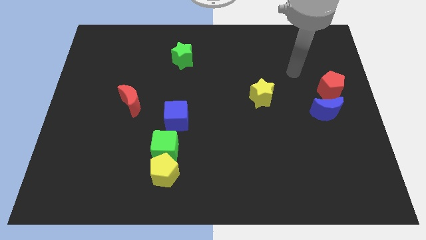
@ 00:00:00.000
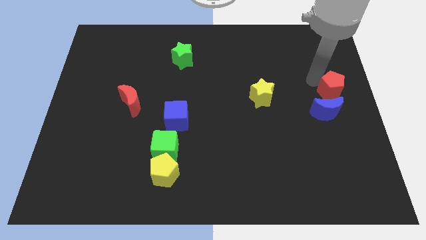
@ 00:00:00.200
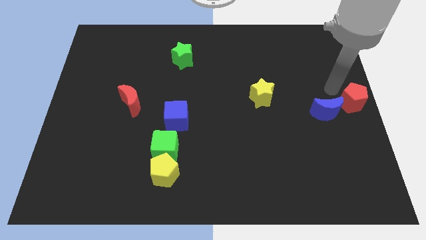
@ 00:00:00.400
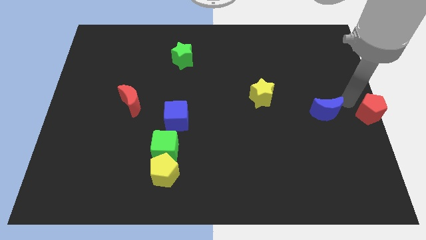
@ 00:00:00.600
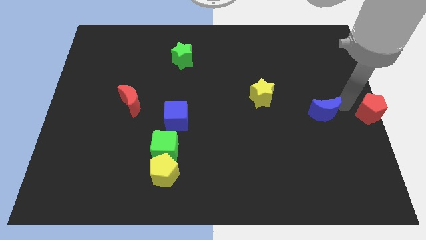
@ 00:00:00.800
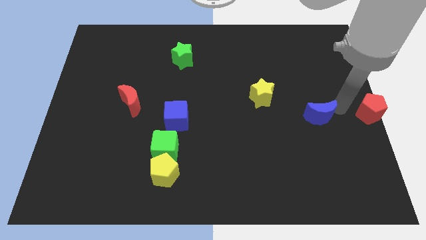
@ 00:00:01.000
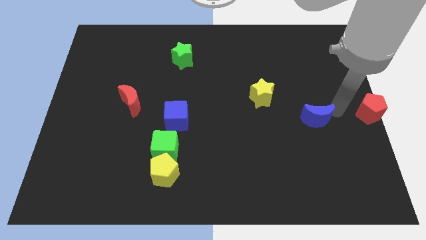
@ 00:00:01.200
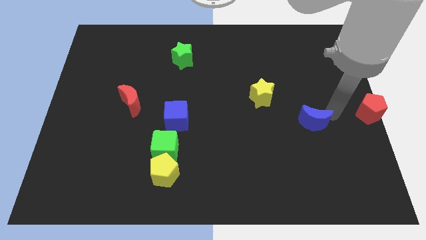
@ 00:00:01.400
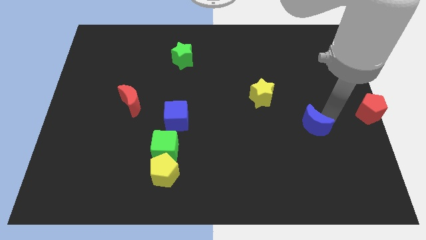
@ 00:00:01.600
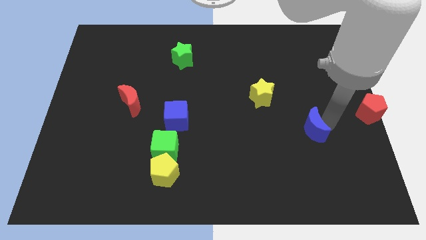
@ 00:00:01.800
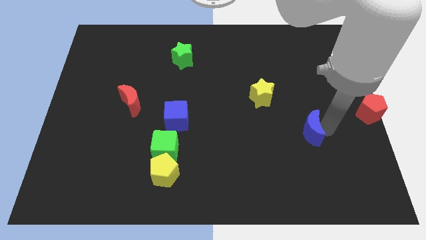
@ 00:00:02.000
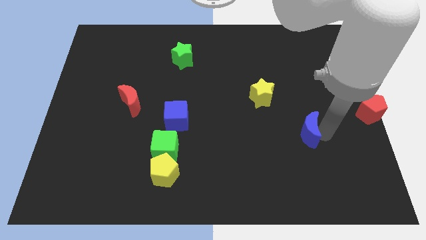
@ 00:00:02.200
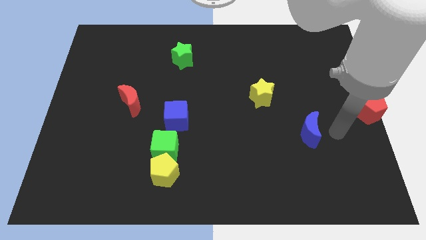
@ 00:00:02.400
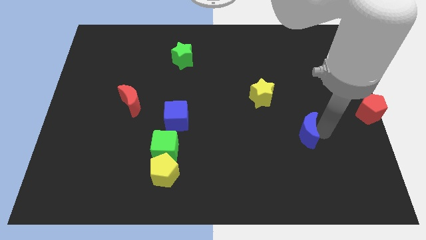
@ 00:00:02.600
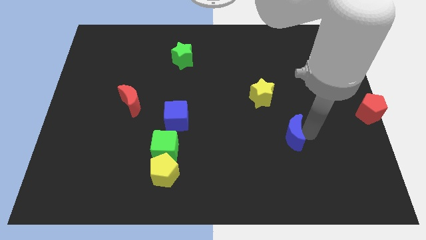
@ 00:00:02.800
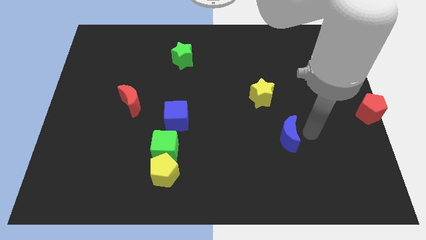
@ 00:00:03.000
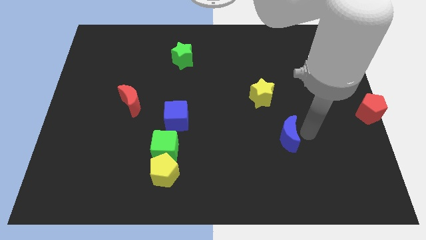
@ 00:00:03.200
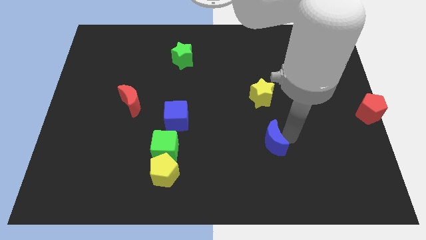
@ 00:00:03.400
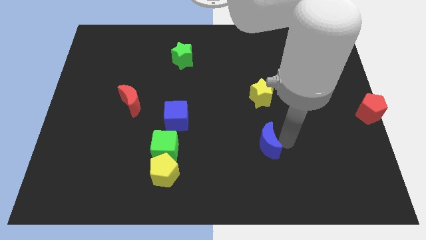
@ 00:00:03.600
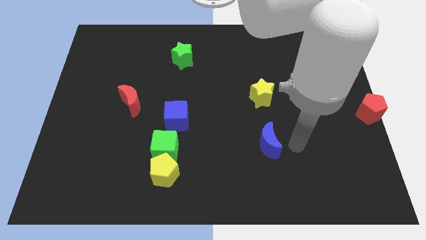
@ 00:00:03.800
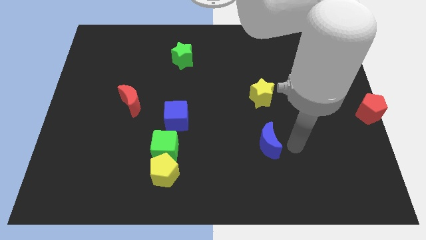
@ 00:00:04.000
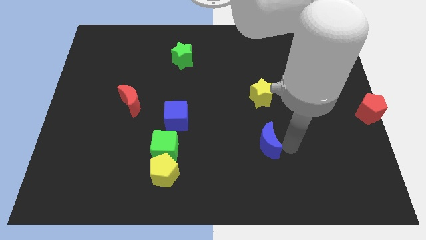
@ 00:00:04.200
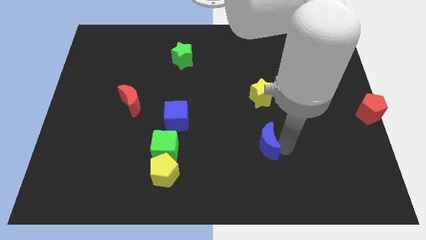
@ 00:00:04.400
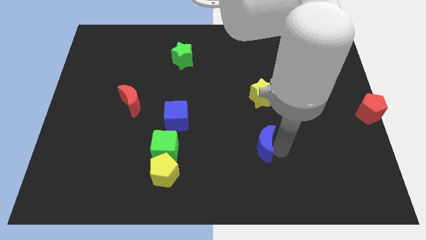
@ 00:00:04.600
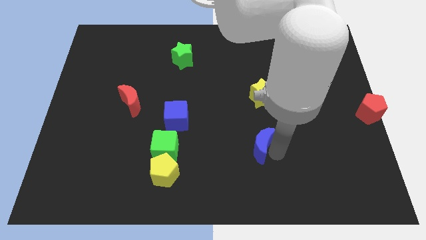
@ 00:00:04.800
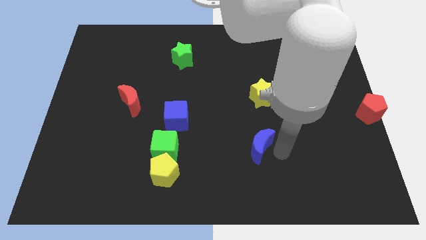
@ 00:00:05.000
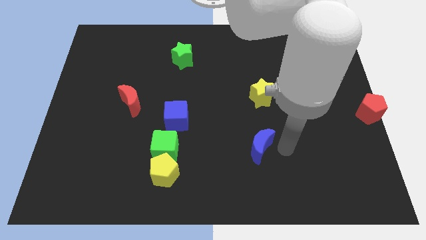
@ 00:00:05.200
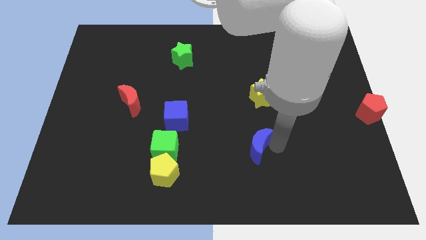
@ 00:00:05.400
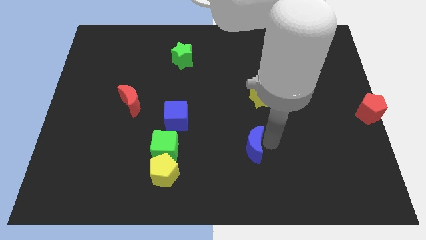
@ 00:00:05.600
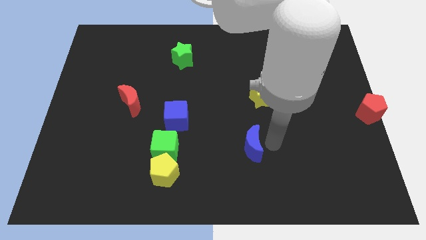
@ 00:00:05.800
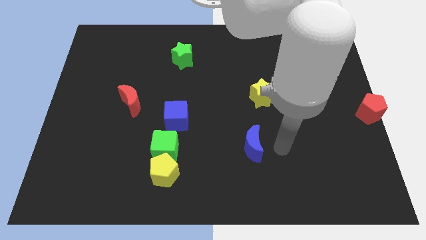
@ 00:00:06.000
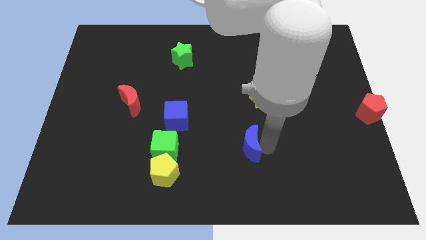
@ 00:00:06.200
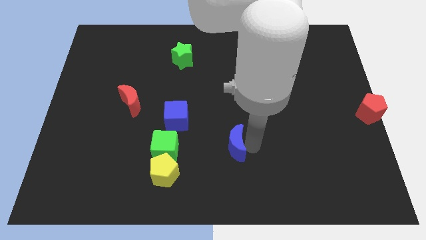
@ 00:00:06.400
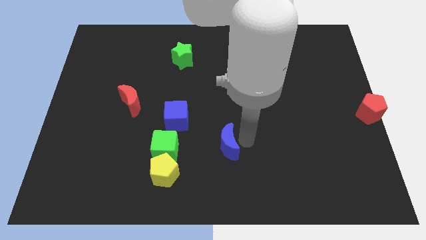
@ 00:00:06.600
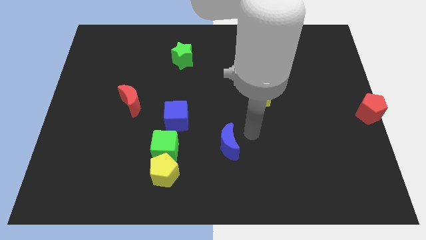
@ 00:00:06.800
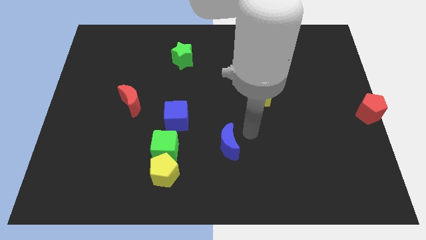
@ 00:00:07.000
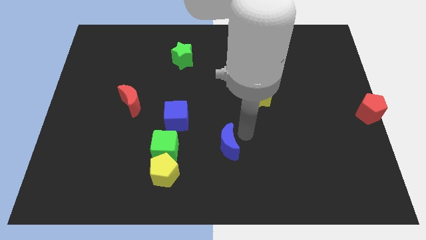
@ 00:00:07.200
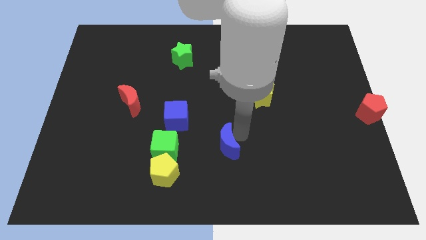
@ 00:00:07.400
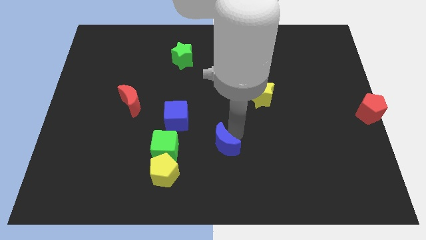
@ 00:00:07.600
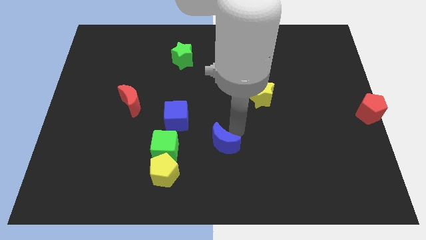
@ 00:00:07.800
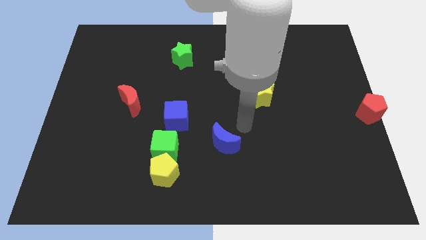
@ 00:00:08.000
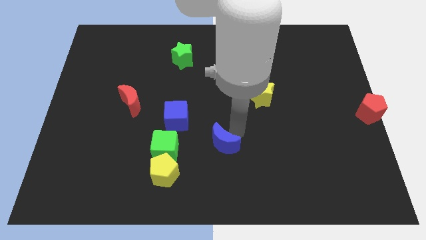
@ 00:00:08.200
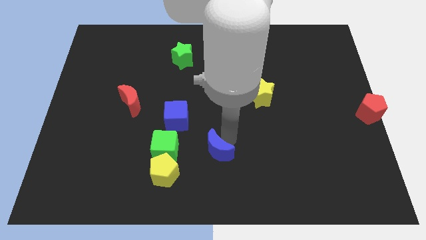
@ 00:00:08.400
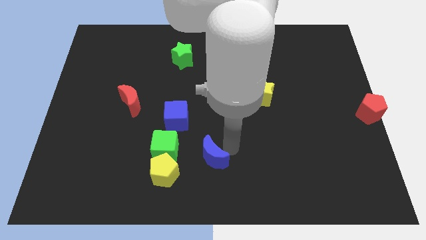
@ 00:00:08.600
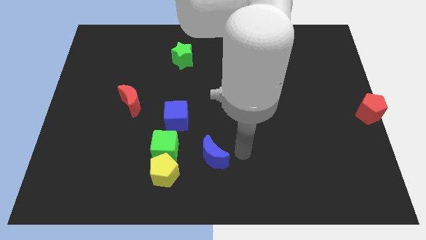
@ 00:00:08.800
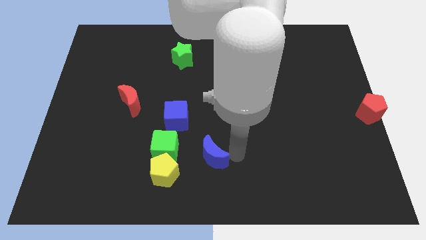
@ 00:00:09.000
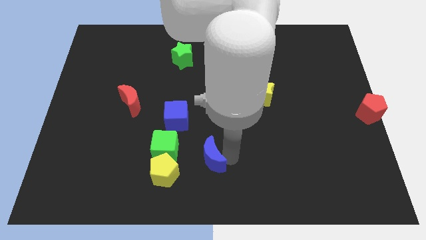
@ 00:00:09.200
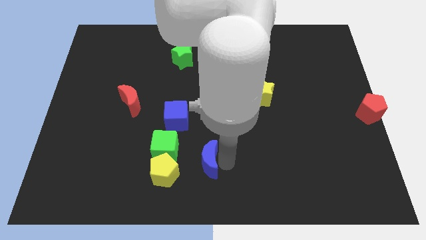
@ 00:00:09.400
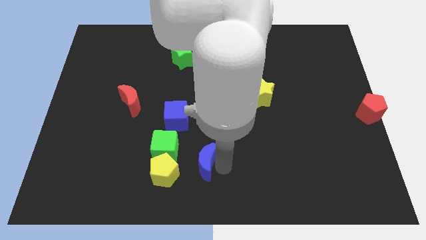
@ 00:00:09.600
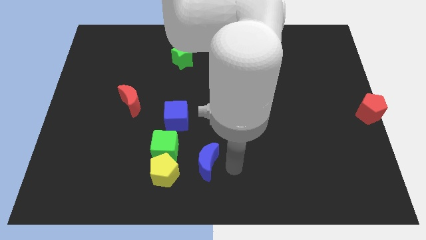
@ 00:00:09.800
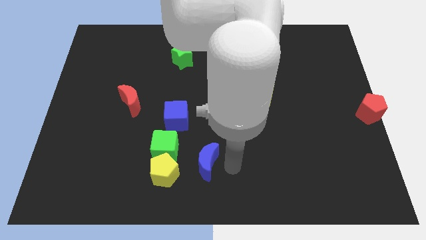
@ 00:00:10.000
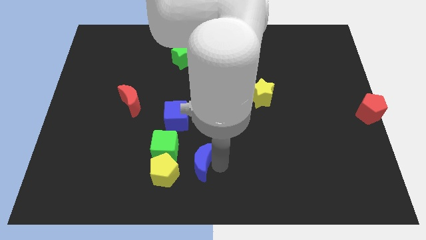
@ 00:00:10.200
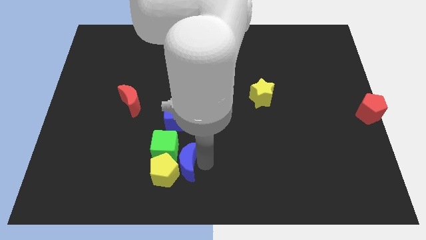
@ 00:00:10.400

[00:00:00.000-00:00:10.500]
push the blue moon towards the yellow pentagon

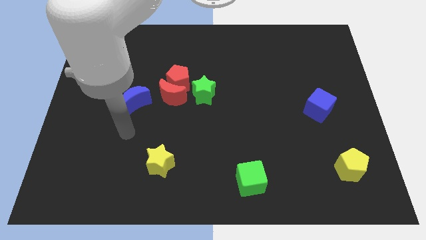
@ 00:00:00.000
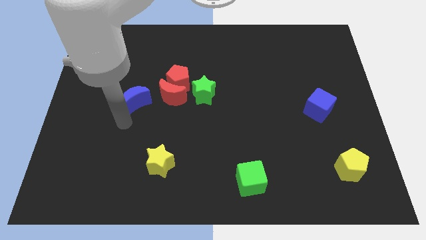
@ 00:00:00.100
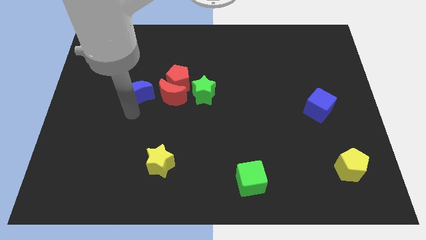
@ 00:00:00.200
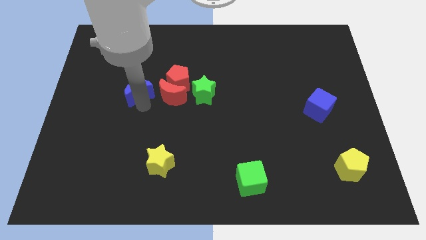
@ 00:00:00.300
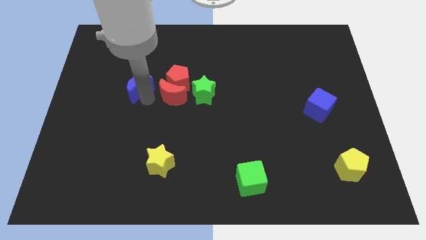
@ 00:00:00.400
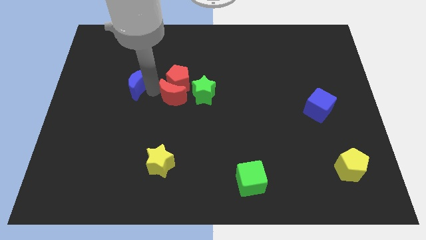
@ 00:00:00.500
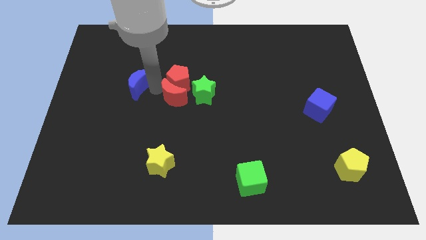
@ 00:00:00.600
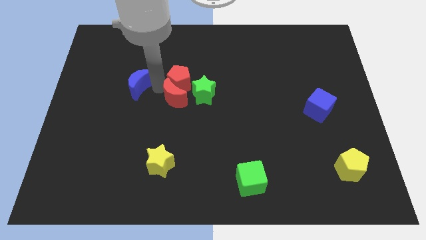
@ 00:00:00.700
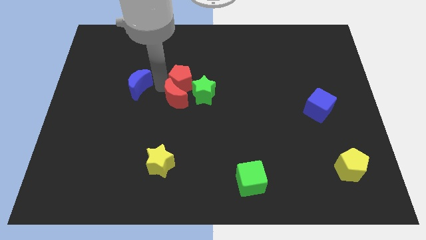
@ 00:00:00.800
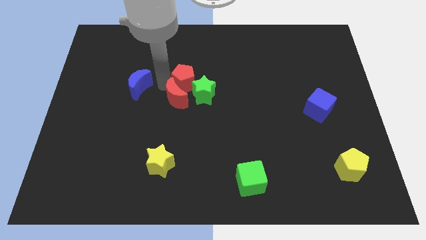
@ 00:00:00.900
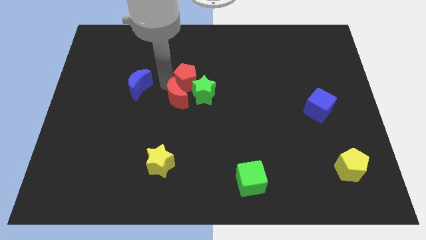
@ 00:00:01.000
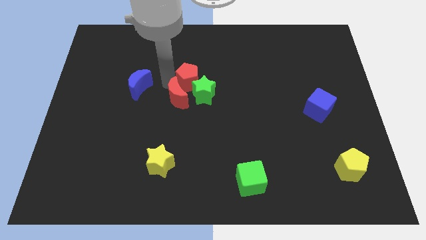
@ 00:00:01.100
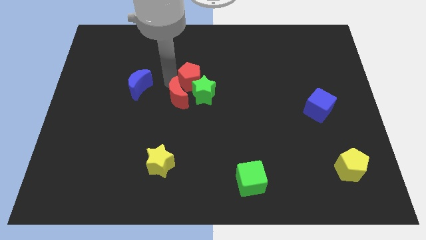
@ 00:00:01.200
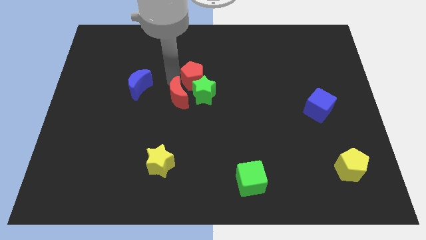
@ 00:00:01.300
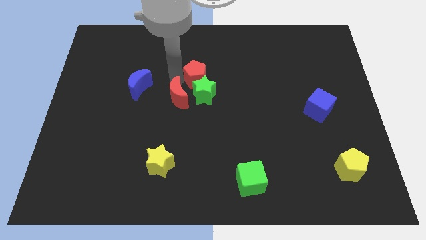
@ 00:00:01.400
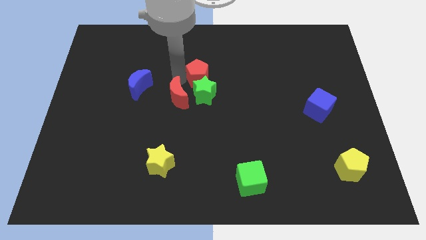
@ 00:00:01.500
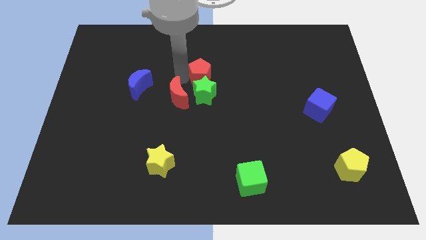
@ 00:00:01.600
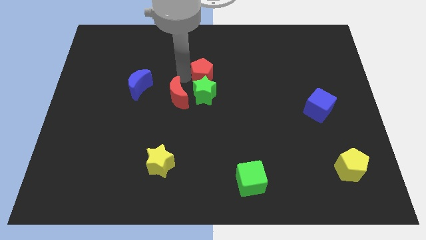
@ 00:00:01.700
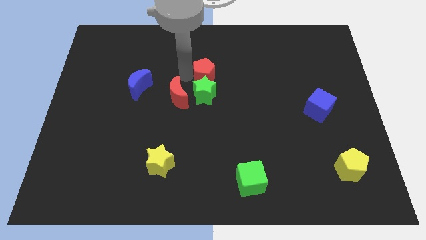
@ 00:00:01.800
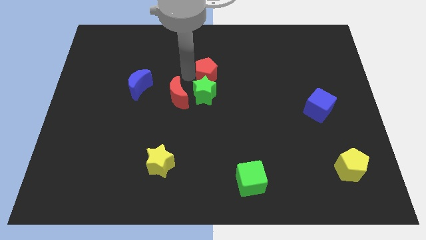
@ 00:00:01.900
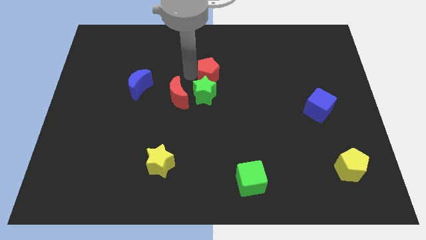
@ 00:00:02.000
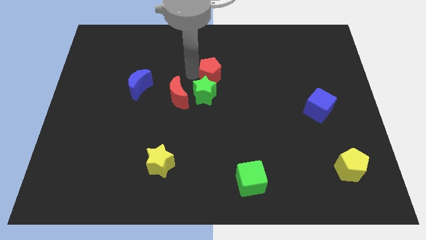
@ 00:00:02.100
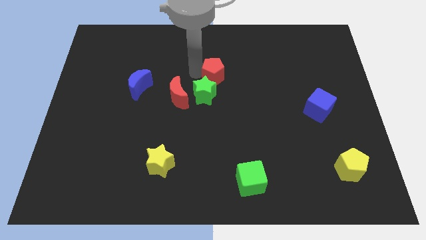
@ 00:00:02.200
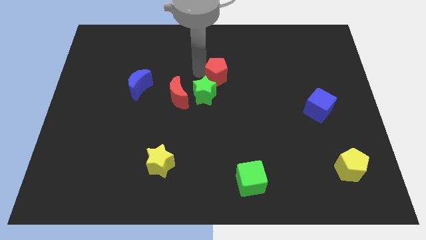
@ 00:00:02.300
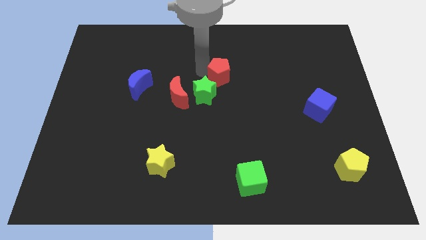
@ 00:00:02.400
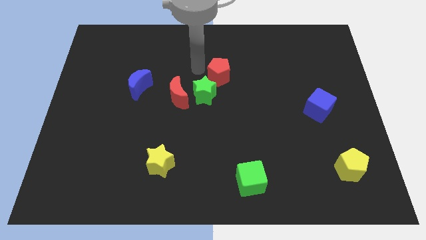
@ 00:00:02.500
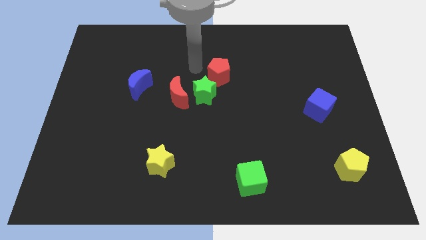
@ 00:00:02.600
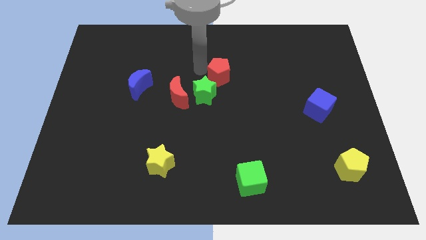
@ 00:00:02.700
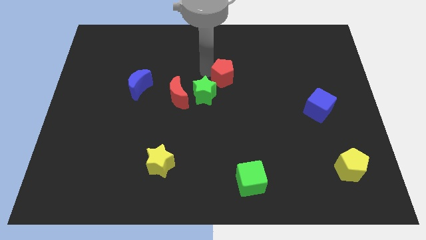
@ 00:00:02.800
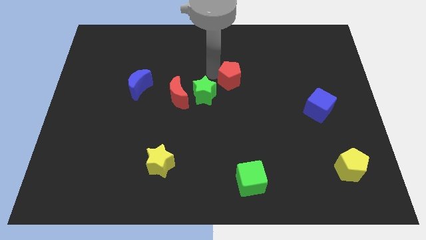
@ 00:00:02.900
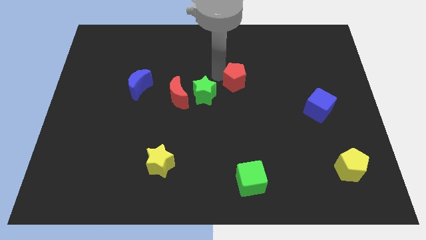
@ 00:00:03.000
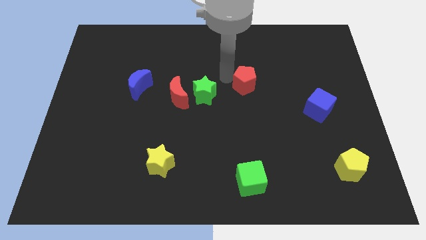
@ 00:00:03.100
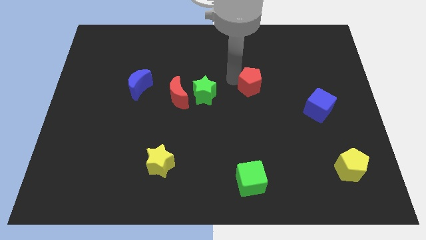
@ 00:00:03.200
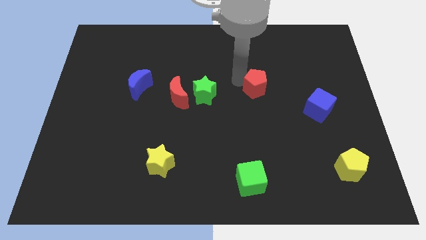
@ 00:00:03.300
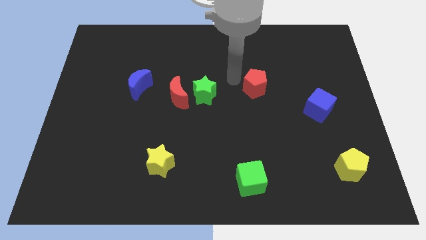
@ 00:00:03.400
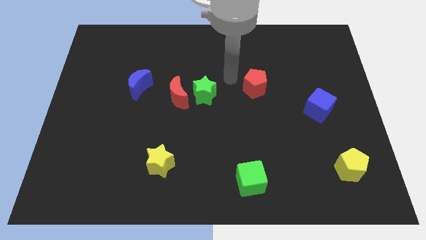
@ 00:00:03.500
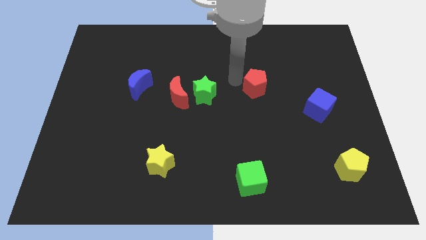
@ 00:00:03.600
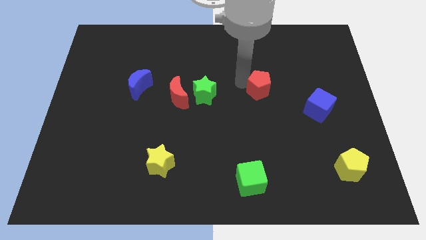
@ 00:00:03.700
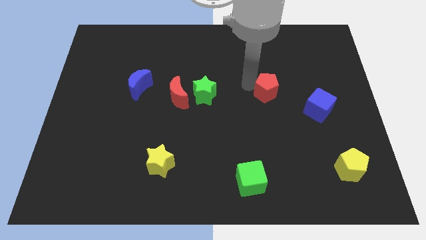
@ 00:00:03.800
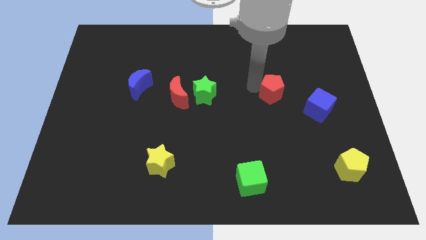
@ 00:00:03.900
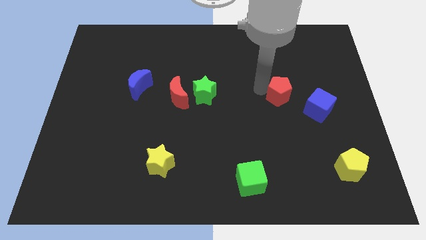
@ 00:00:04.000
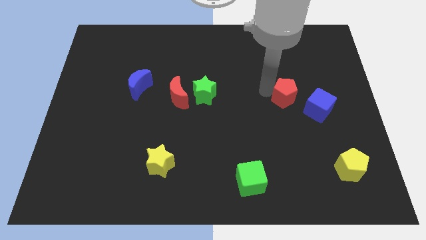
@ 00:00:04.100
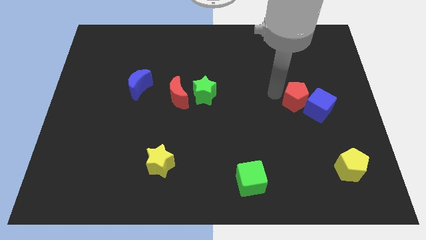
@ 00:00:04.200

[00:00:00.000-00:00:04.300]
move the red pentagon close to the blue cube
